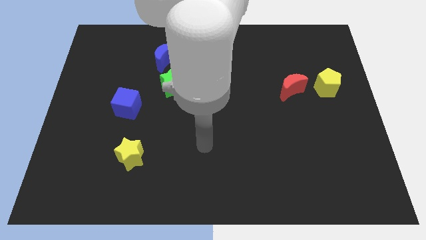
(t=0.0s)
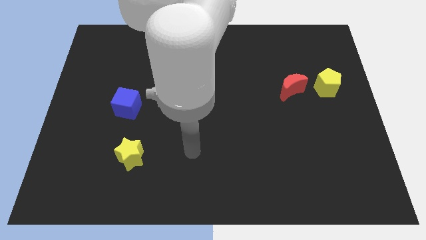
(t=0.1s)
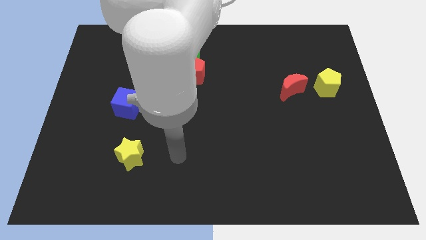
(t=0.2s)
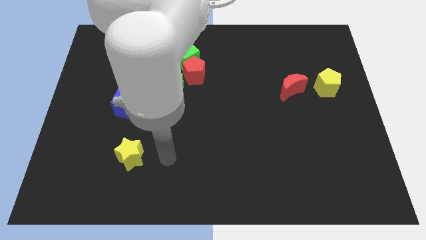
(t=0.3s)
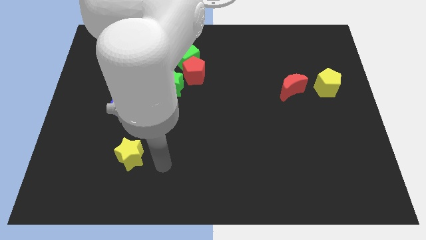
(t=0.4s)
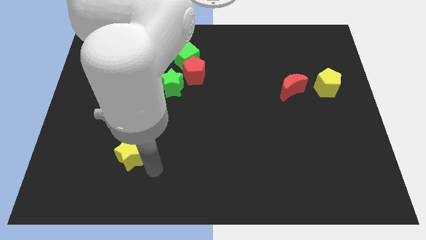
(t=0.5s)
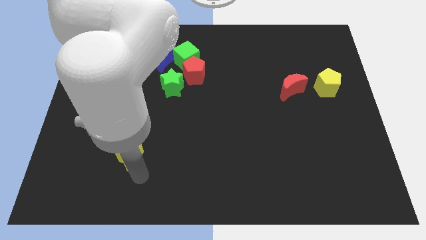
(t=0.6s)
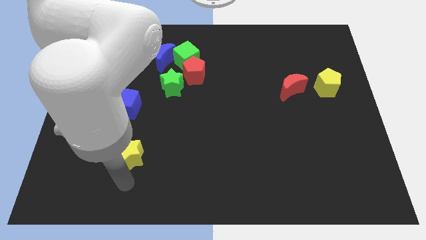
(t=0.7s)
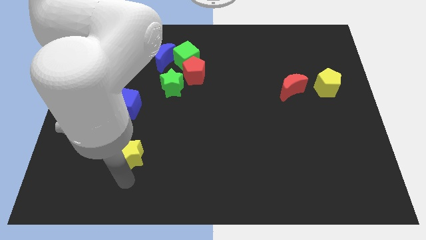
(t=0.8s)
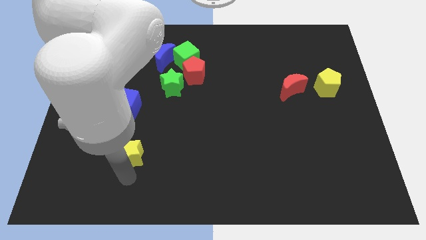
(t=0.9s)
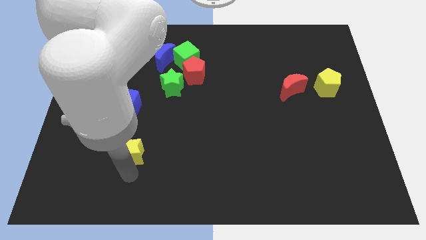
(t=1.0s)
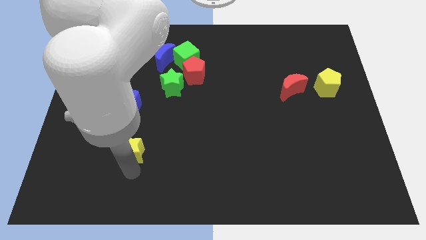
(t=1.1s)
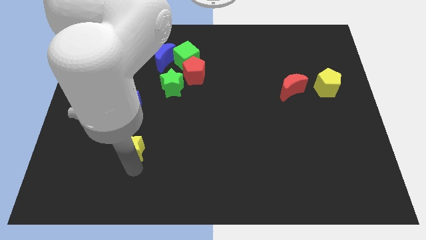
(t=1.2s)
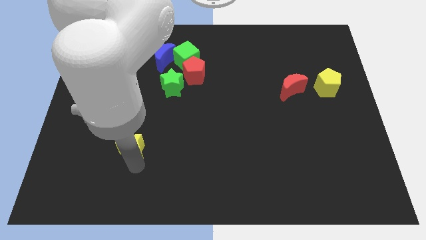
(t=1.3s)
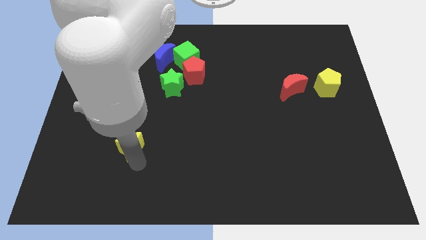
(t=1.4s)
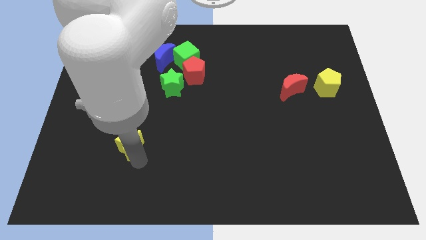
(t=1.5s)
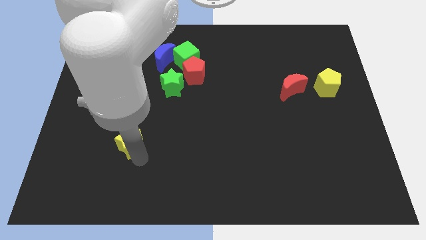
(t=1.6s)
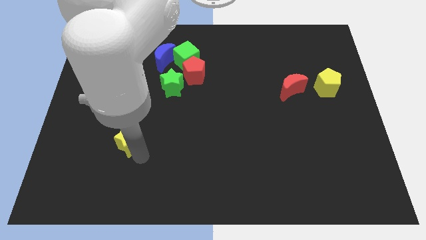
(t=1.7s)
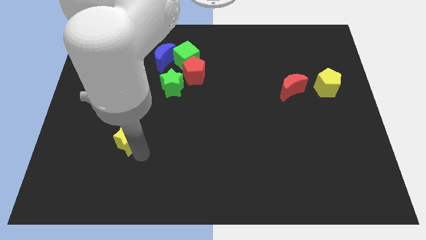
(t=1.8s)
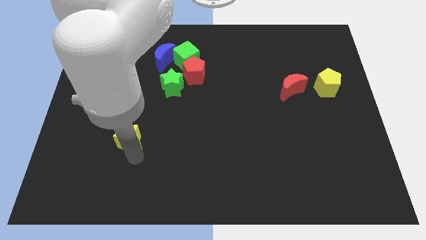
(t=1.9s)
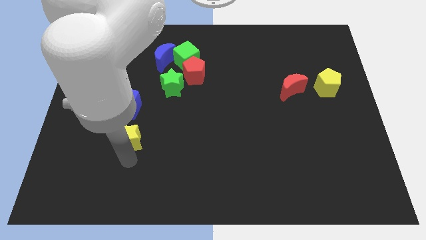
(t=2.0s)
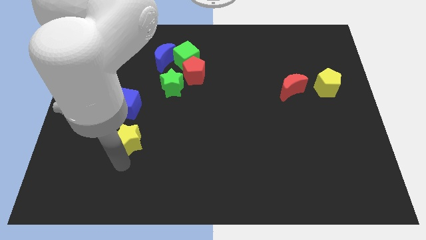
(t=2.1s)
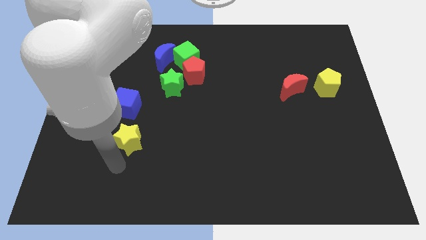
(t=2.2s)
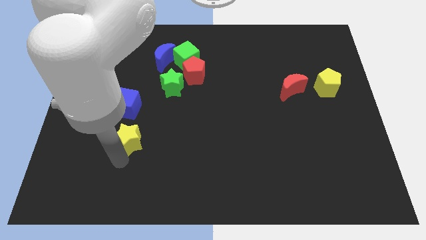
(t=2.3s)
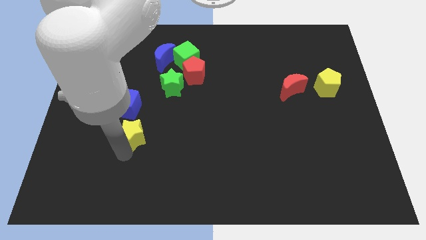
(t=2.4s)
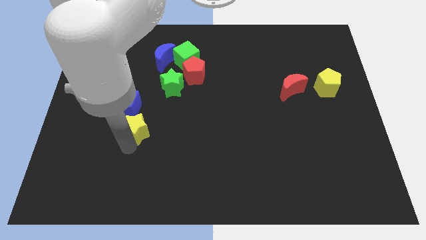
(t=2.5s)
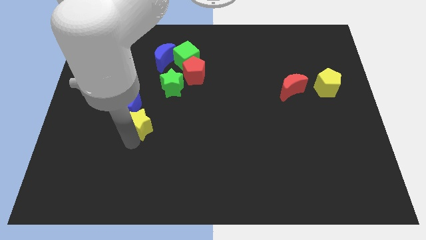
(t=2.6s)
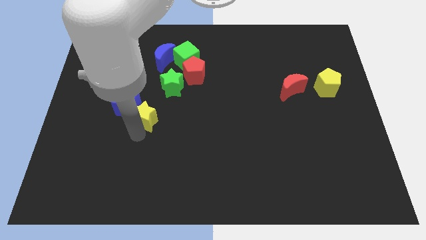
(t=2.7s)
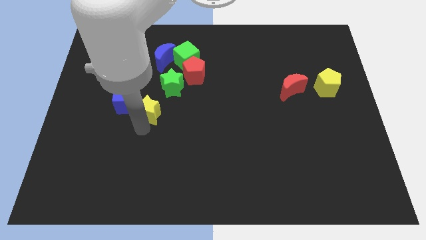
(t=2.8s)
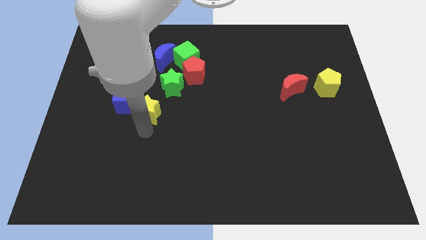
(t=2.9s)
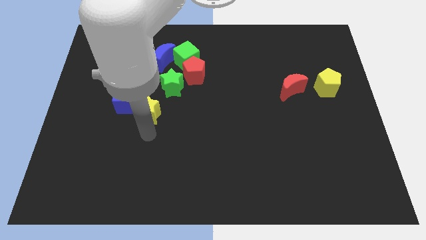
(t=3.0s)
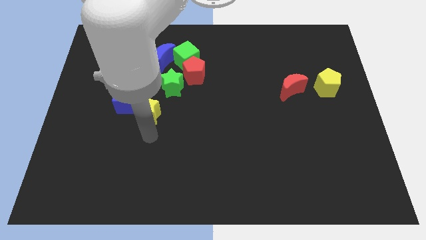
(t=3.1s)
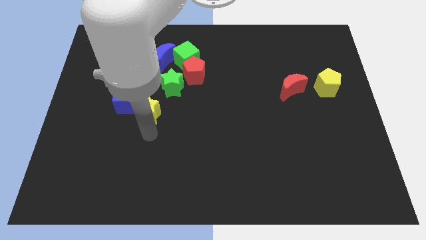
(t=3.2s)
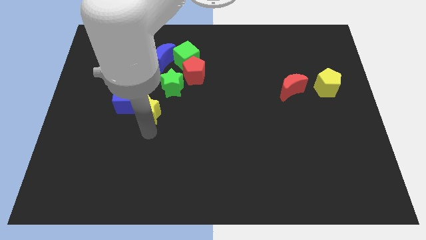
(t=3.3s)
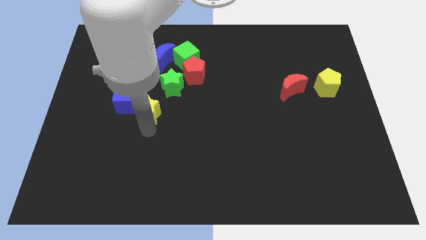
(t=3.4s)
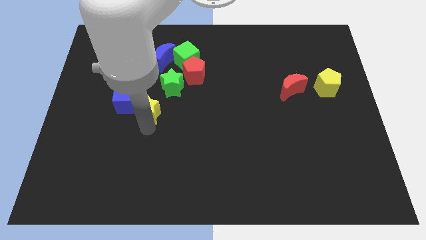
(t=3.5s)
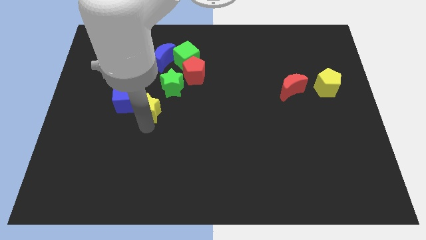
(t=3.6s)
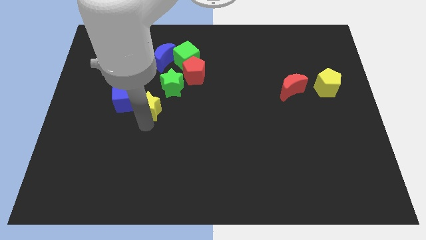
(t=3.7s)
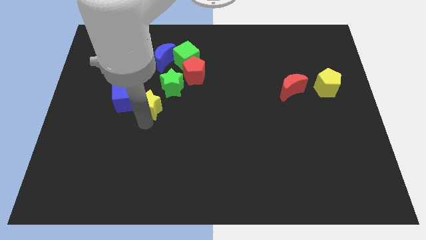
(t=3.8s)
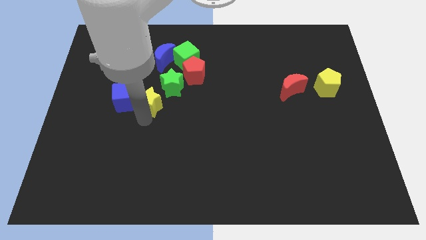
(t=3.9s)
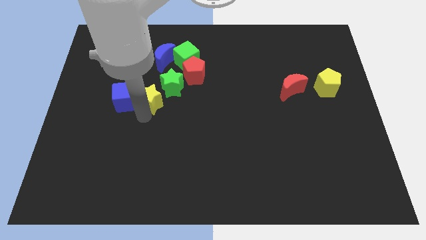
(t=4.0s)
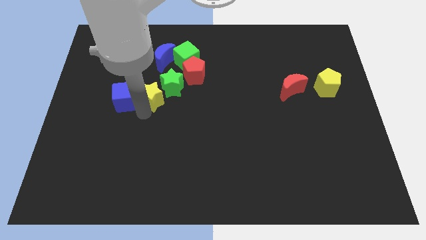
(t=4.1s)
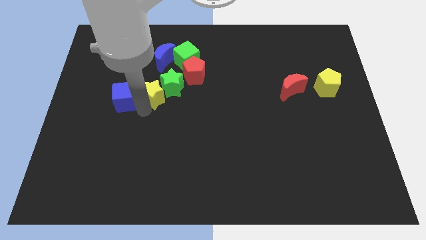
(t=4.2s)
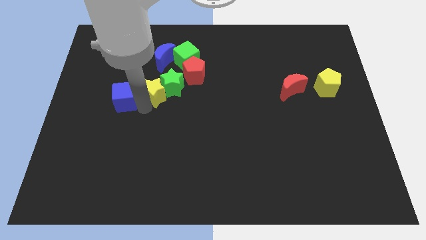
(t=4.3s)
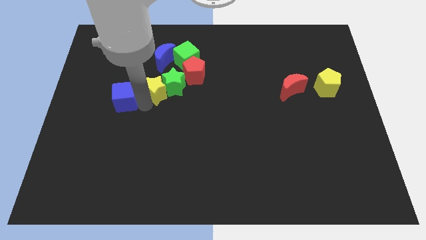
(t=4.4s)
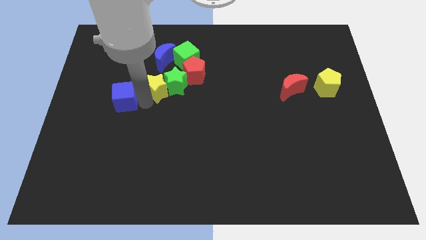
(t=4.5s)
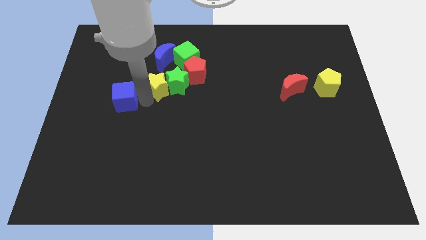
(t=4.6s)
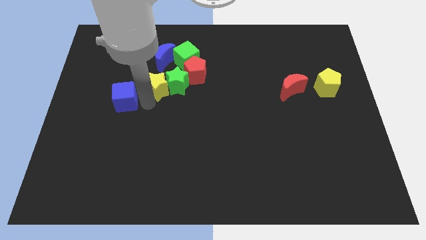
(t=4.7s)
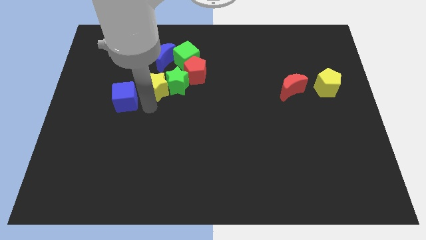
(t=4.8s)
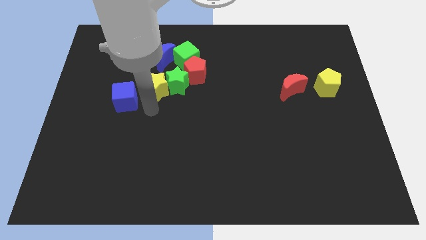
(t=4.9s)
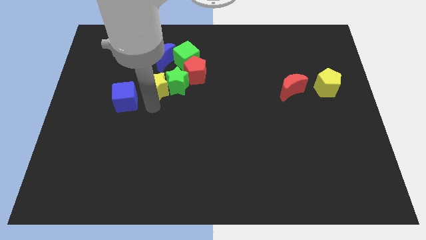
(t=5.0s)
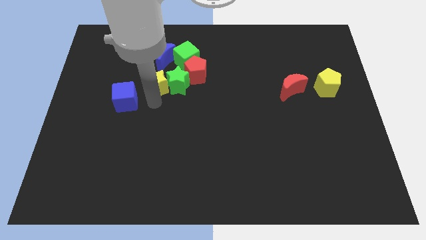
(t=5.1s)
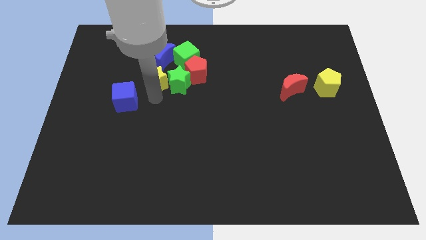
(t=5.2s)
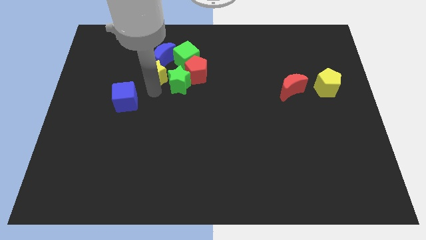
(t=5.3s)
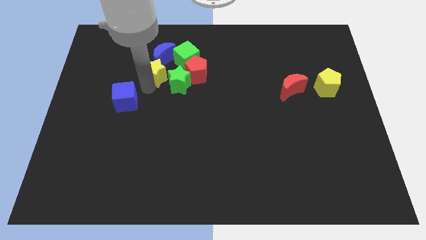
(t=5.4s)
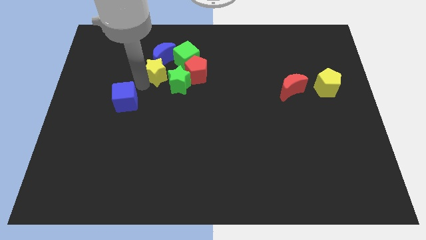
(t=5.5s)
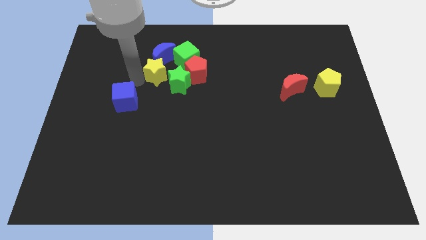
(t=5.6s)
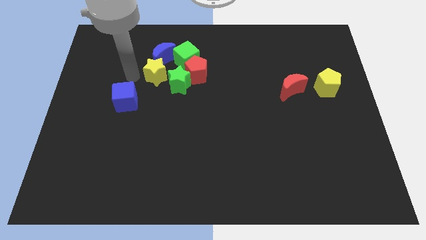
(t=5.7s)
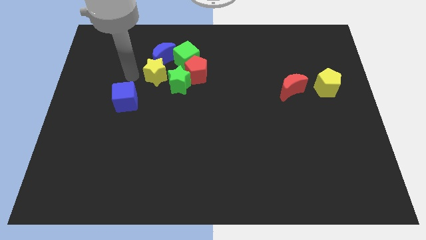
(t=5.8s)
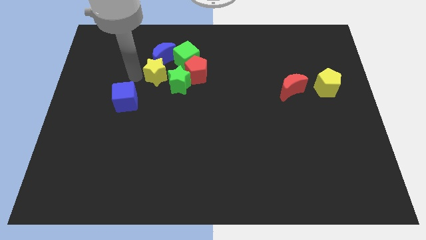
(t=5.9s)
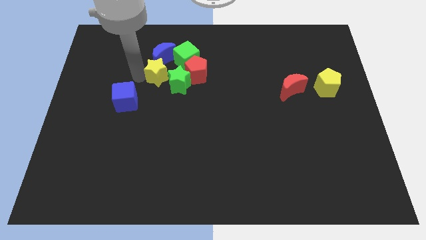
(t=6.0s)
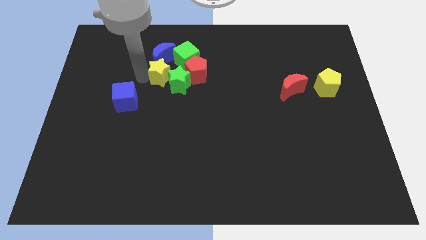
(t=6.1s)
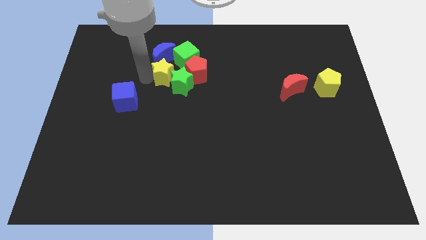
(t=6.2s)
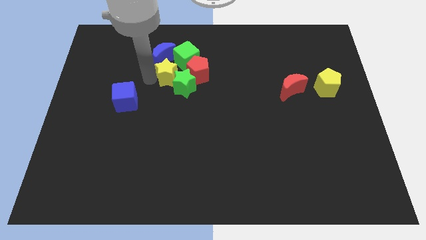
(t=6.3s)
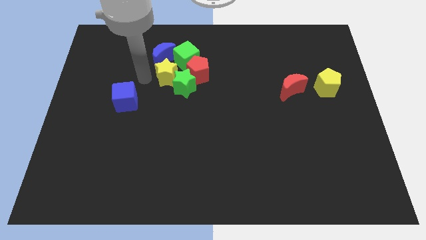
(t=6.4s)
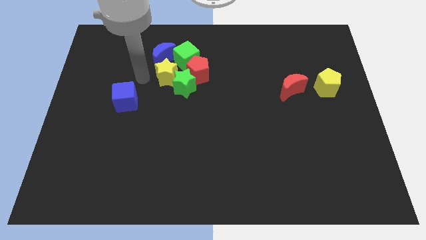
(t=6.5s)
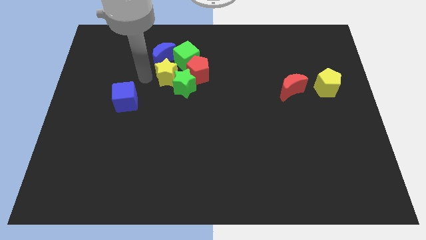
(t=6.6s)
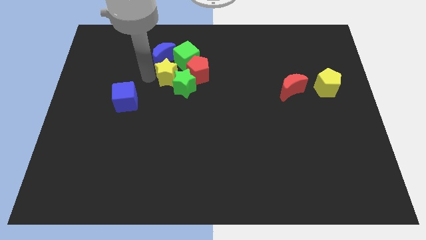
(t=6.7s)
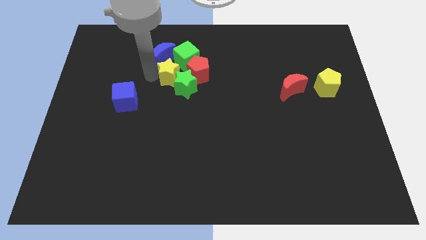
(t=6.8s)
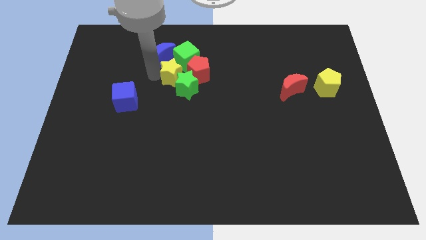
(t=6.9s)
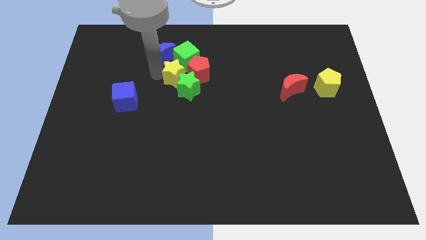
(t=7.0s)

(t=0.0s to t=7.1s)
move the yellow star to the red pentagon

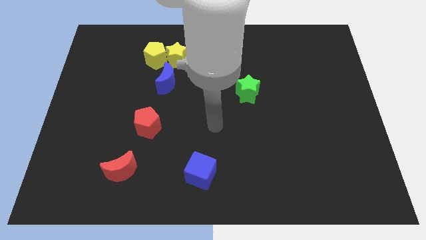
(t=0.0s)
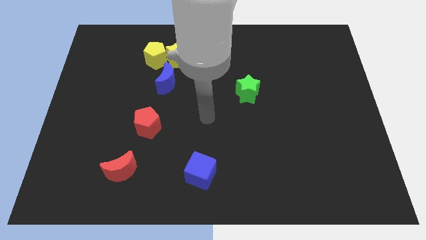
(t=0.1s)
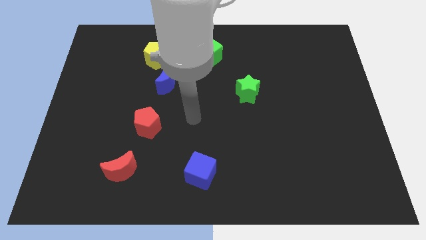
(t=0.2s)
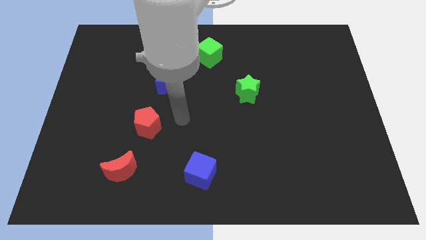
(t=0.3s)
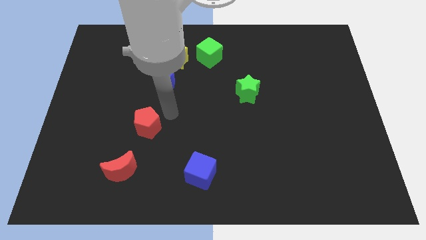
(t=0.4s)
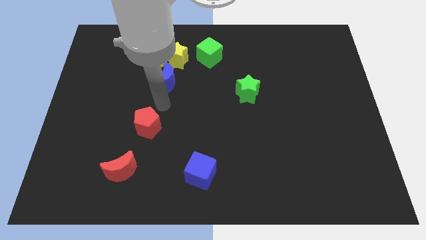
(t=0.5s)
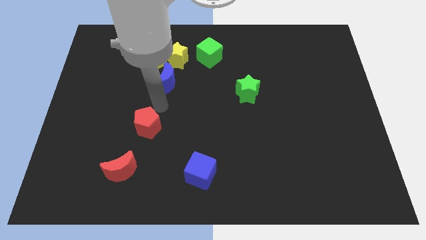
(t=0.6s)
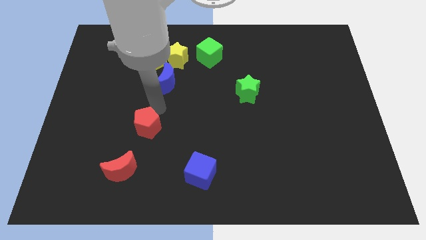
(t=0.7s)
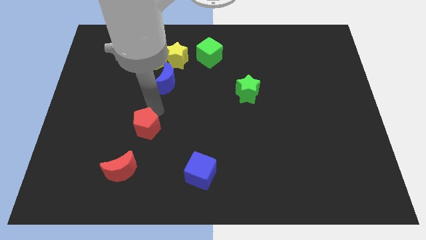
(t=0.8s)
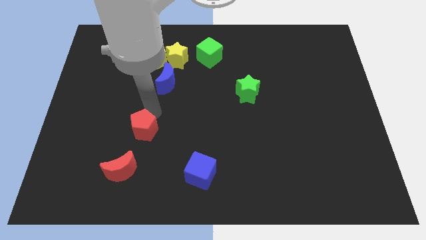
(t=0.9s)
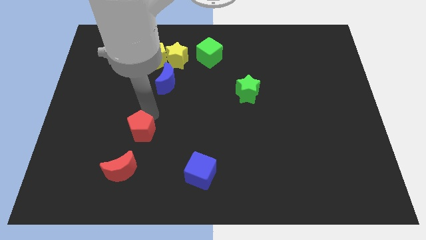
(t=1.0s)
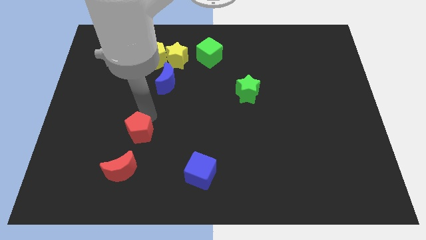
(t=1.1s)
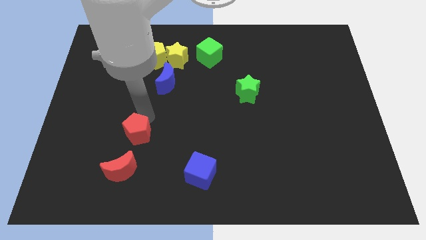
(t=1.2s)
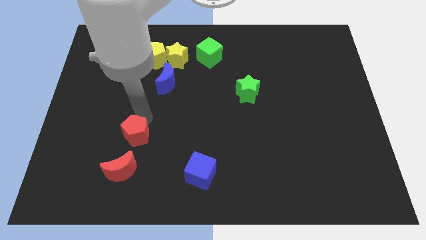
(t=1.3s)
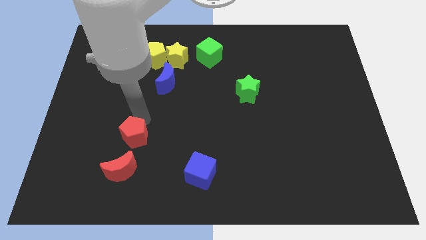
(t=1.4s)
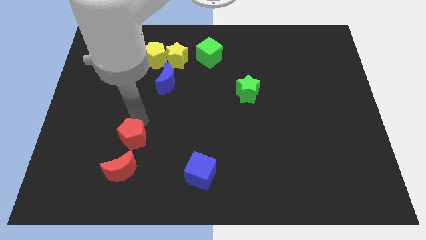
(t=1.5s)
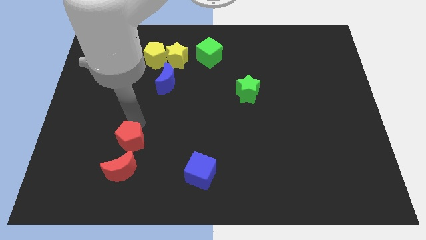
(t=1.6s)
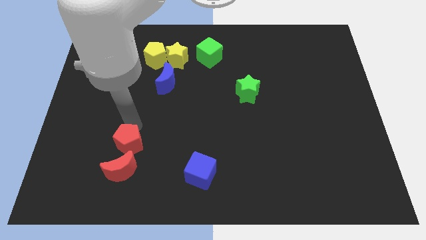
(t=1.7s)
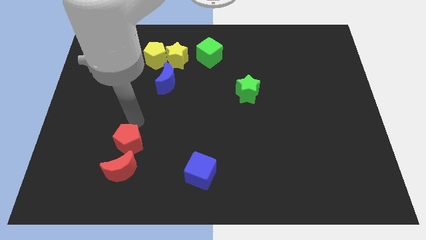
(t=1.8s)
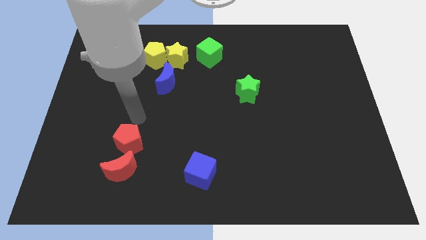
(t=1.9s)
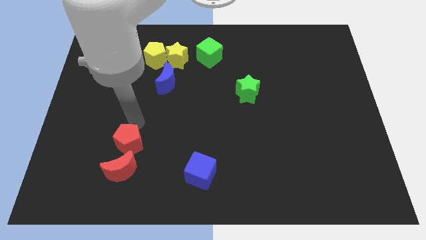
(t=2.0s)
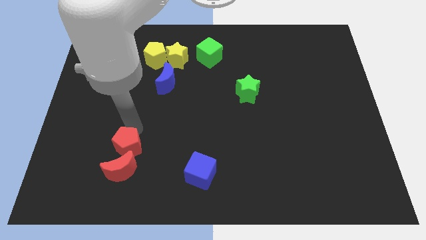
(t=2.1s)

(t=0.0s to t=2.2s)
put the red pentagon close to the red moon
